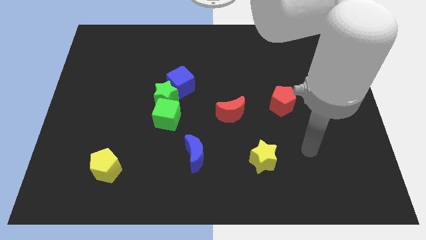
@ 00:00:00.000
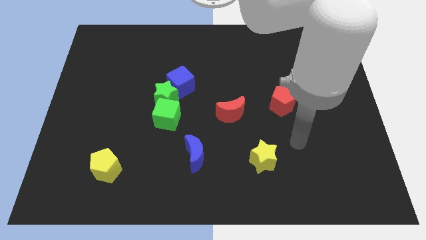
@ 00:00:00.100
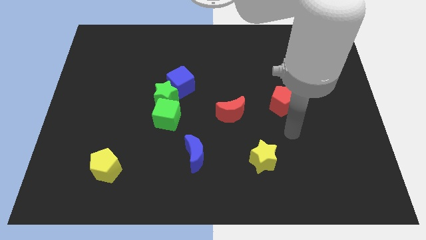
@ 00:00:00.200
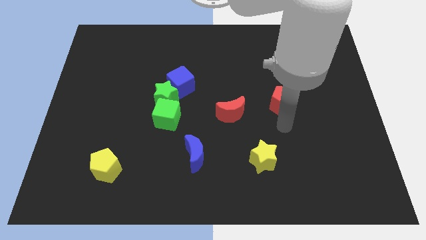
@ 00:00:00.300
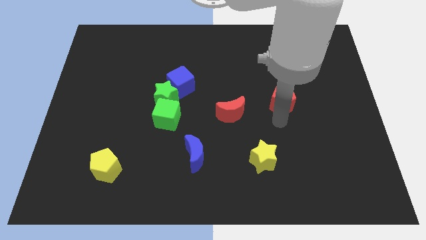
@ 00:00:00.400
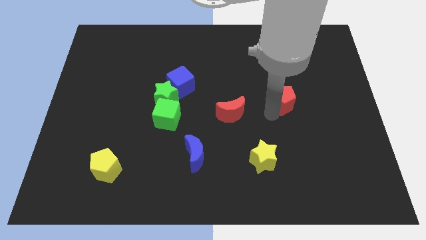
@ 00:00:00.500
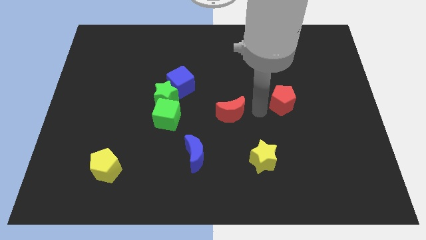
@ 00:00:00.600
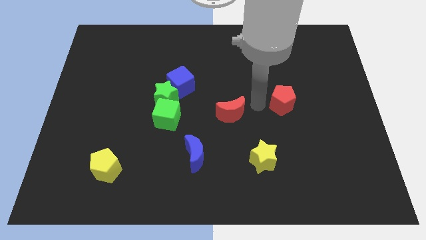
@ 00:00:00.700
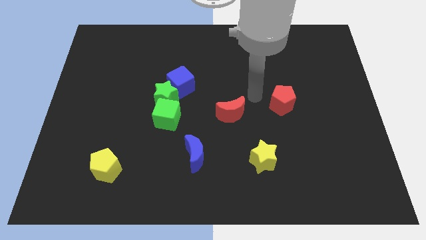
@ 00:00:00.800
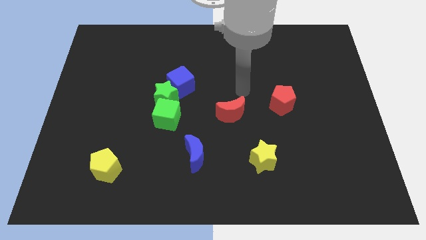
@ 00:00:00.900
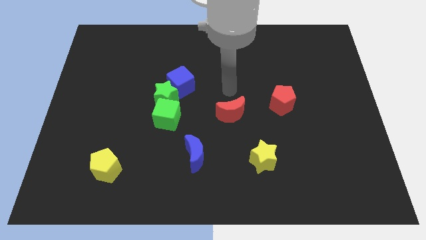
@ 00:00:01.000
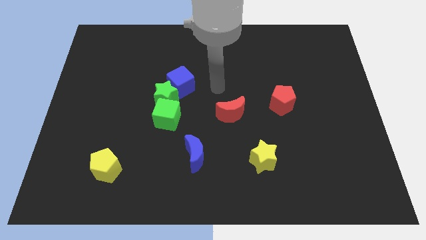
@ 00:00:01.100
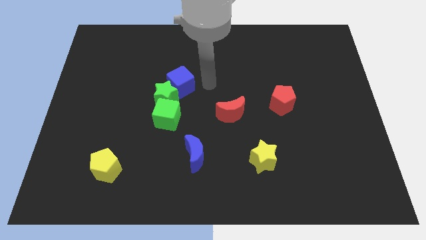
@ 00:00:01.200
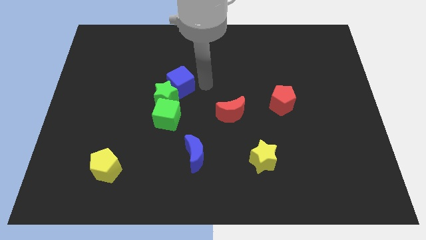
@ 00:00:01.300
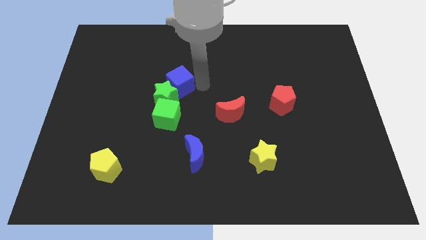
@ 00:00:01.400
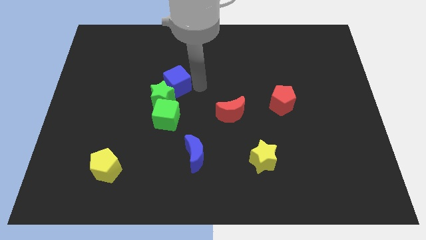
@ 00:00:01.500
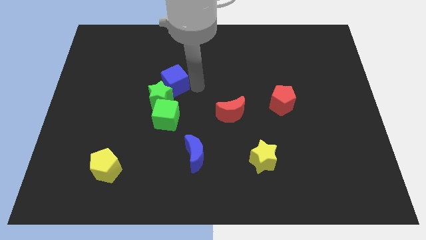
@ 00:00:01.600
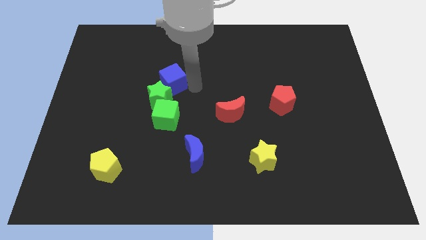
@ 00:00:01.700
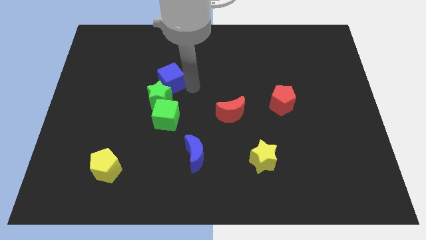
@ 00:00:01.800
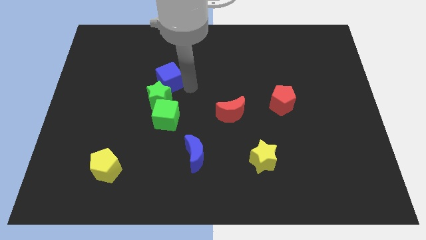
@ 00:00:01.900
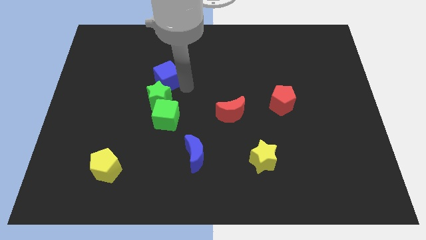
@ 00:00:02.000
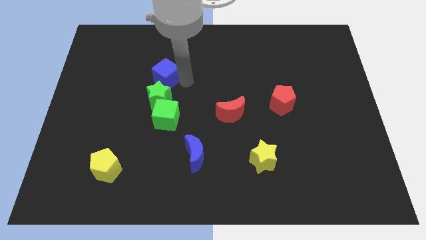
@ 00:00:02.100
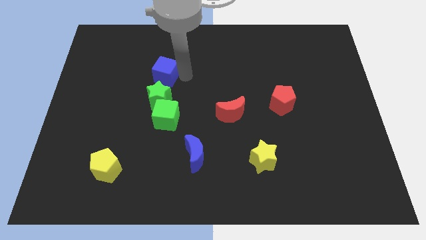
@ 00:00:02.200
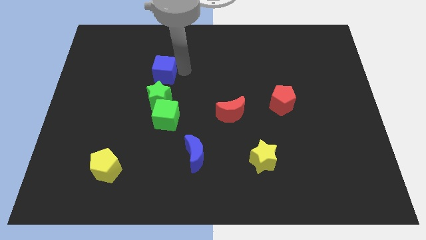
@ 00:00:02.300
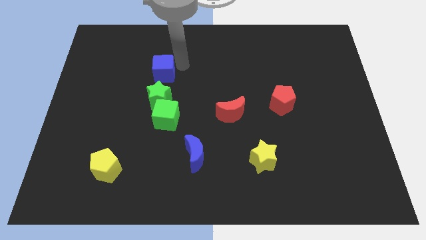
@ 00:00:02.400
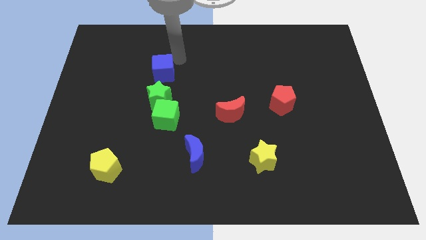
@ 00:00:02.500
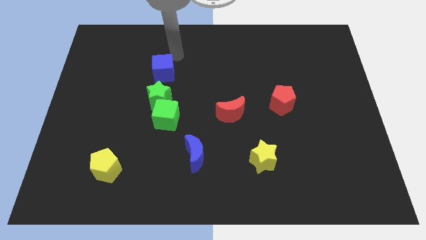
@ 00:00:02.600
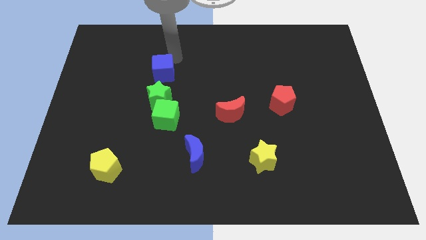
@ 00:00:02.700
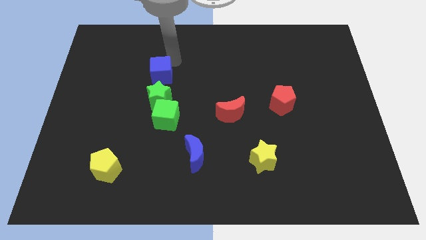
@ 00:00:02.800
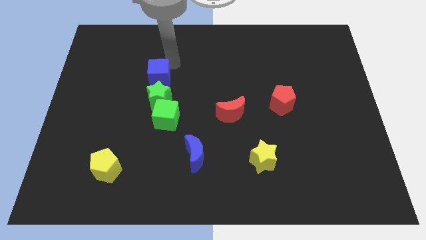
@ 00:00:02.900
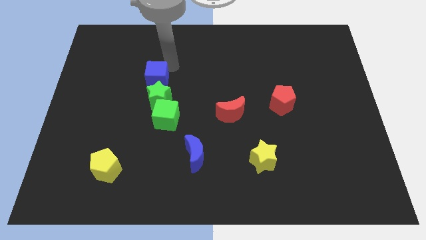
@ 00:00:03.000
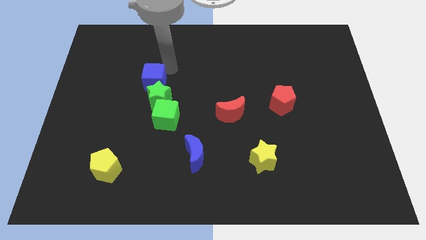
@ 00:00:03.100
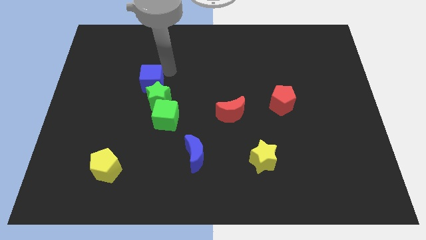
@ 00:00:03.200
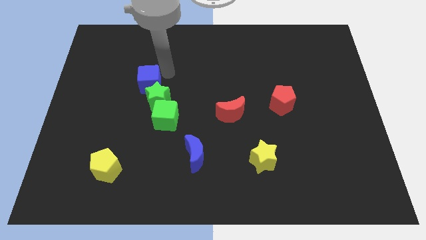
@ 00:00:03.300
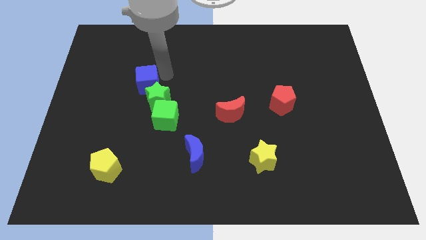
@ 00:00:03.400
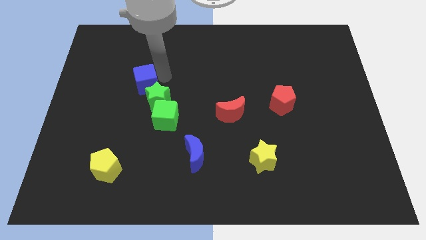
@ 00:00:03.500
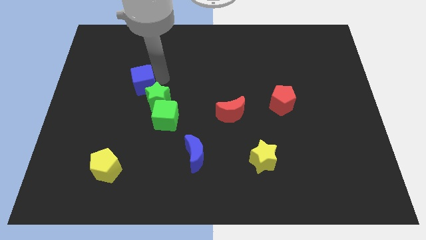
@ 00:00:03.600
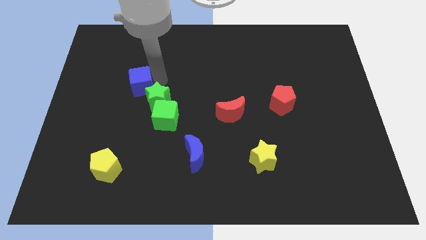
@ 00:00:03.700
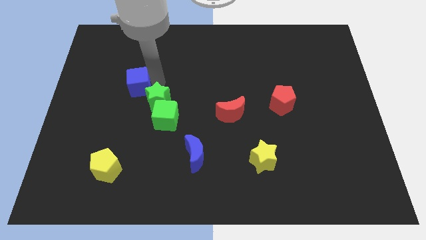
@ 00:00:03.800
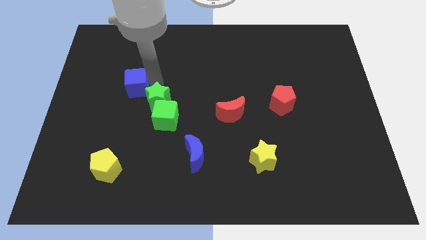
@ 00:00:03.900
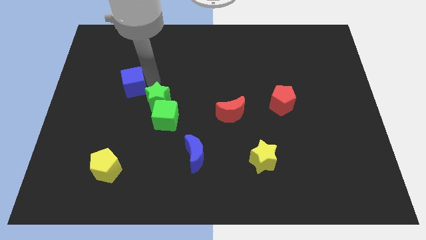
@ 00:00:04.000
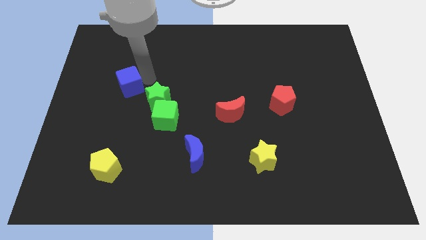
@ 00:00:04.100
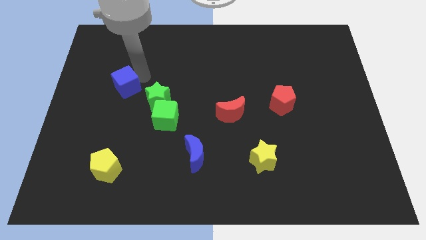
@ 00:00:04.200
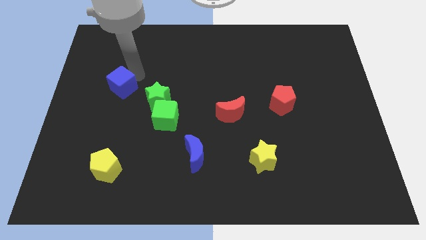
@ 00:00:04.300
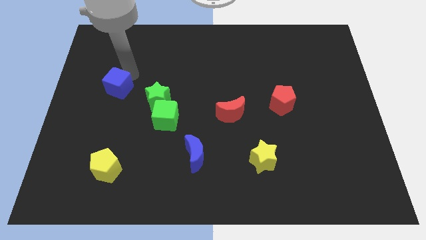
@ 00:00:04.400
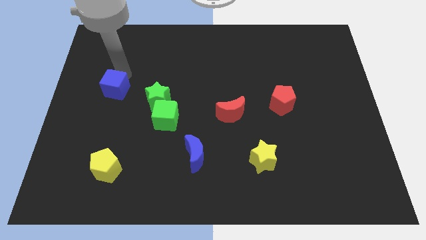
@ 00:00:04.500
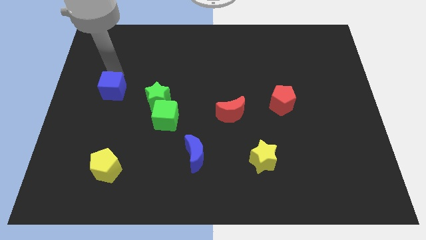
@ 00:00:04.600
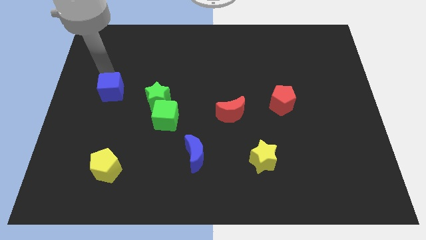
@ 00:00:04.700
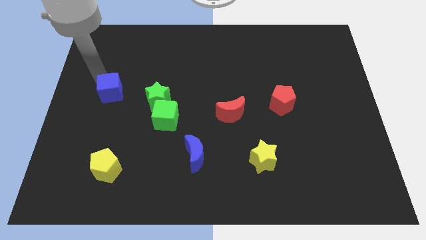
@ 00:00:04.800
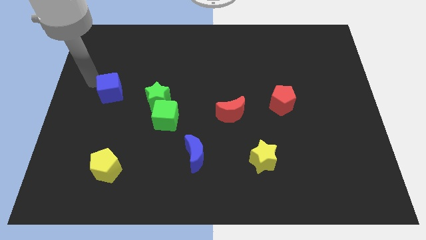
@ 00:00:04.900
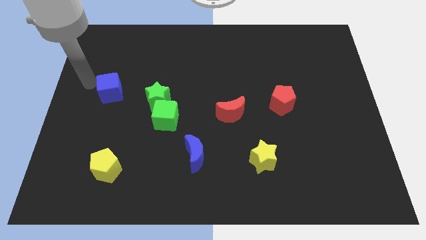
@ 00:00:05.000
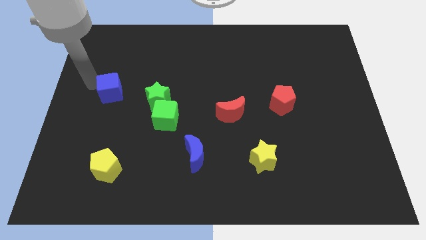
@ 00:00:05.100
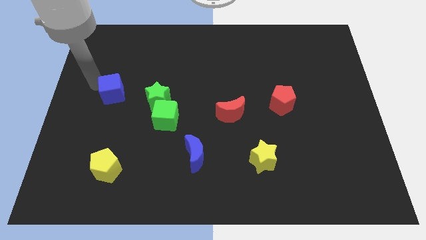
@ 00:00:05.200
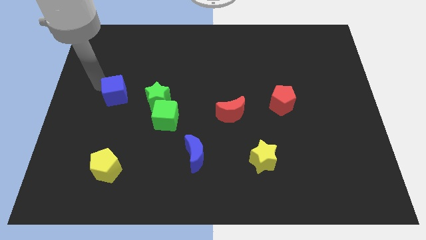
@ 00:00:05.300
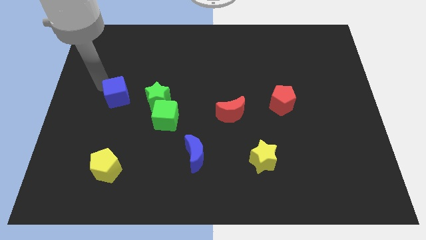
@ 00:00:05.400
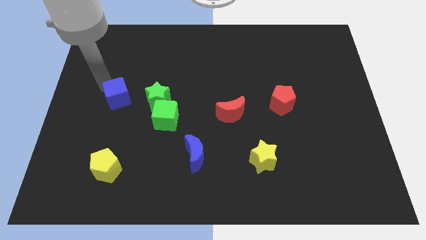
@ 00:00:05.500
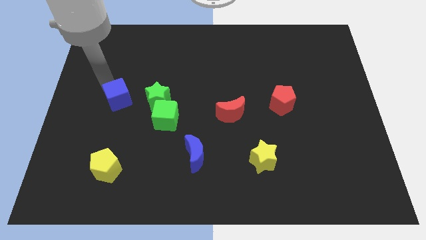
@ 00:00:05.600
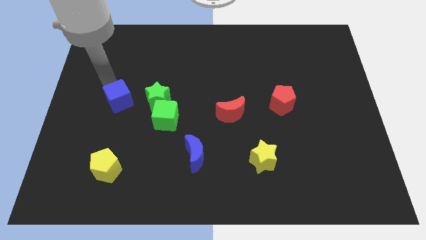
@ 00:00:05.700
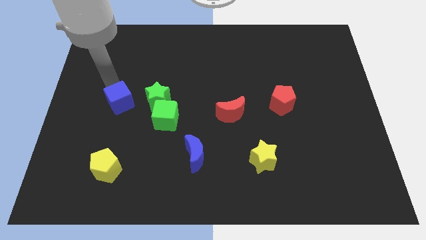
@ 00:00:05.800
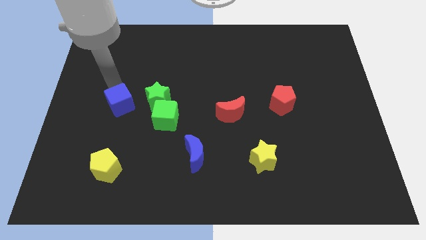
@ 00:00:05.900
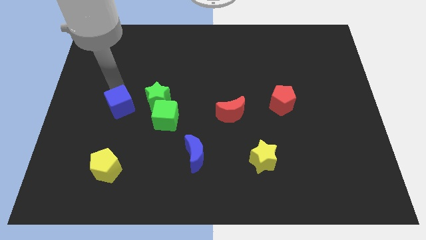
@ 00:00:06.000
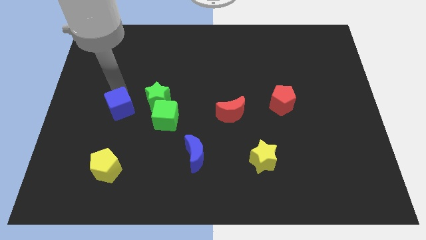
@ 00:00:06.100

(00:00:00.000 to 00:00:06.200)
move the blue cube to the top side of the yellow pentagon
